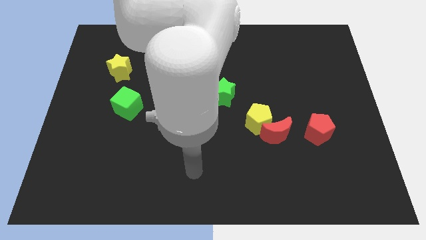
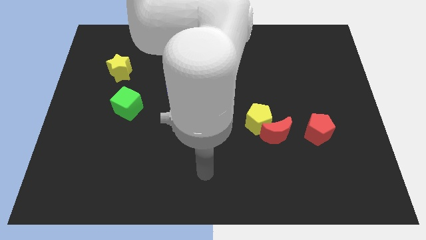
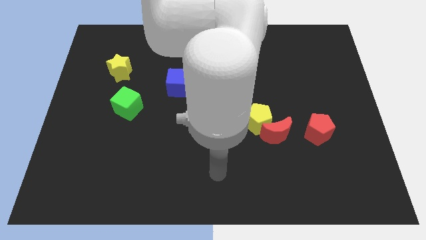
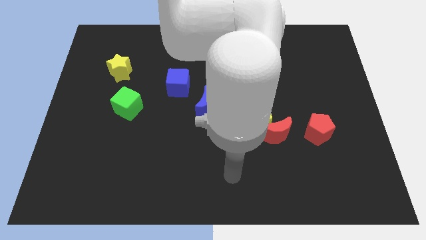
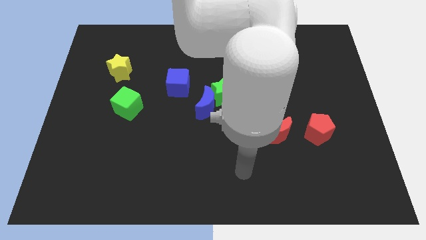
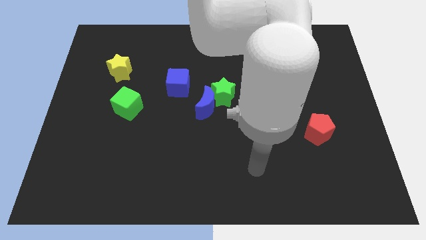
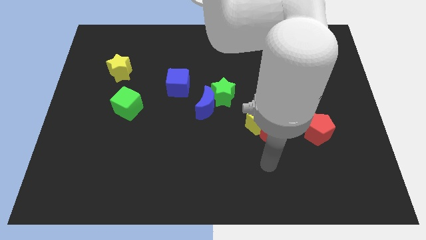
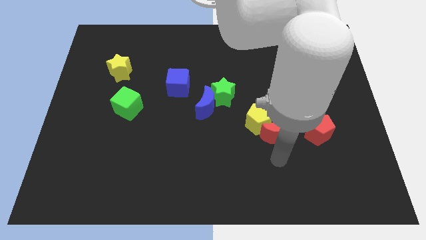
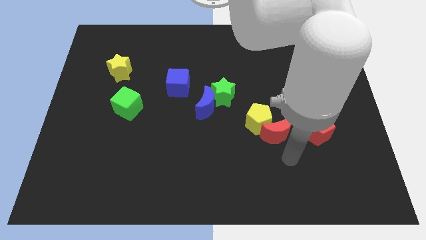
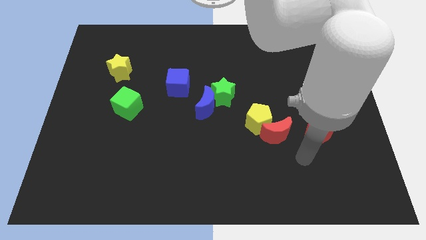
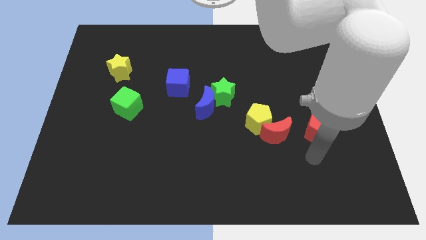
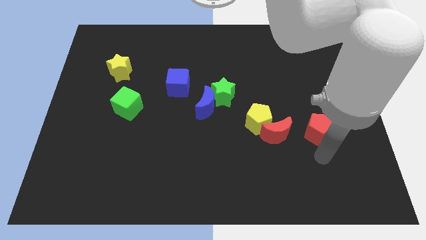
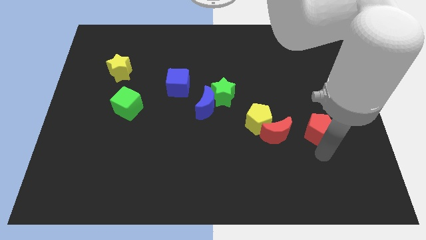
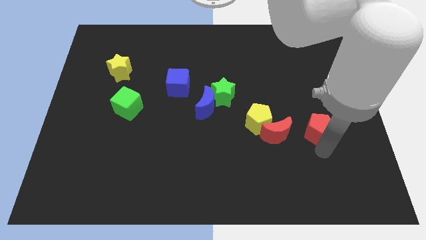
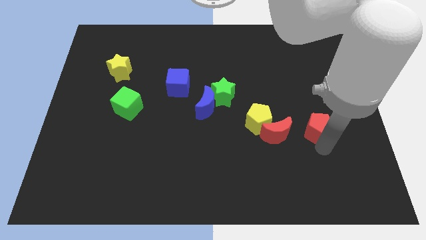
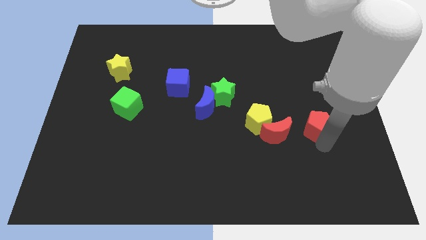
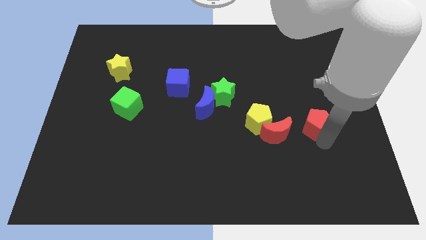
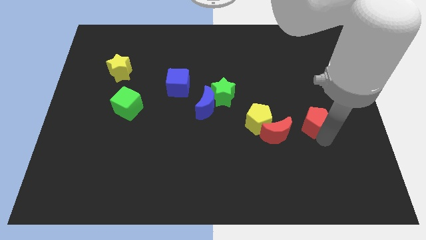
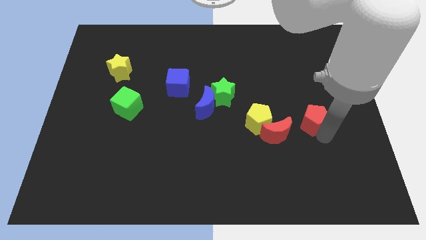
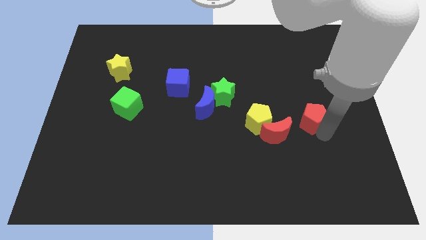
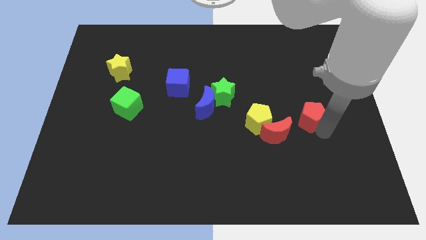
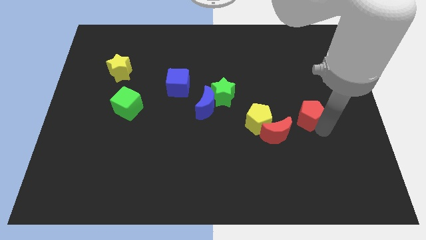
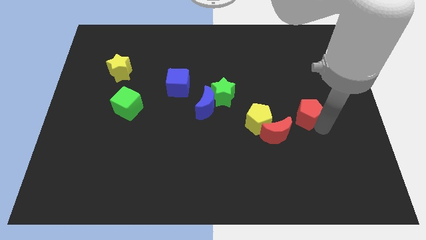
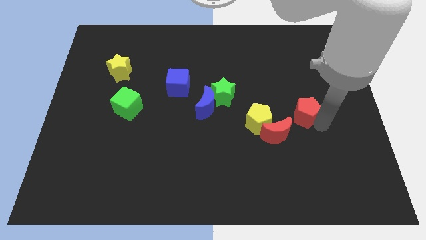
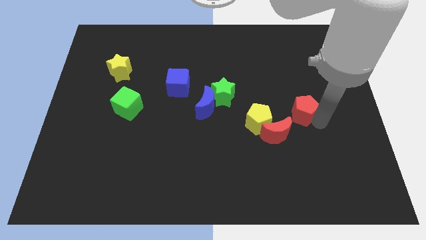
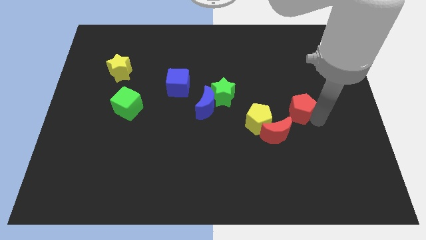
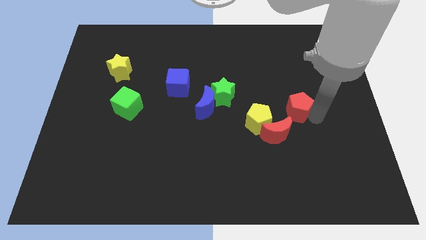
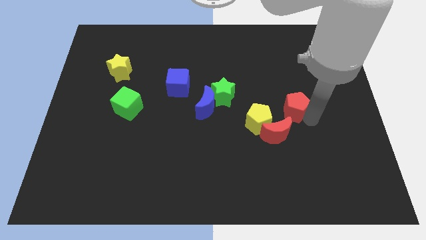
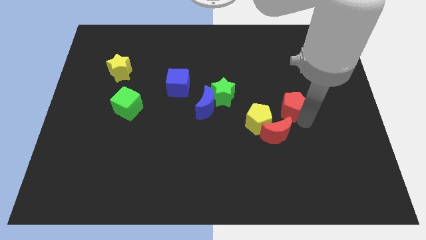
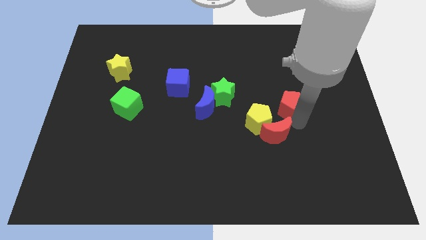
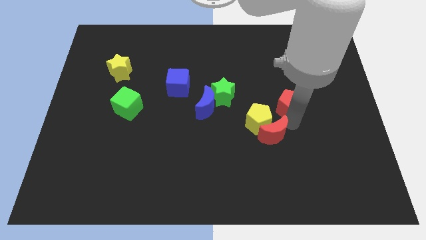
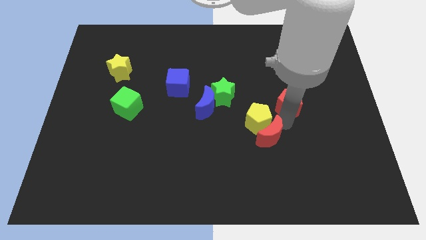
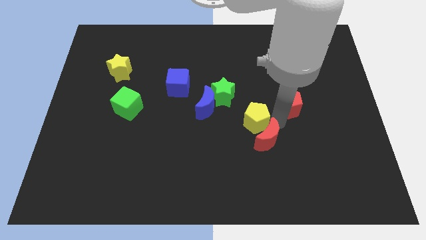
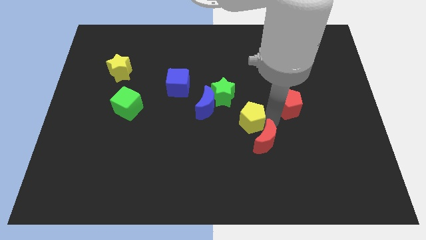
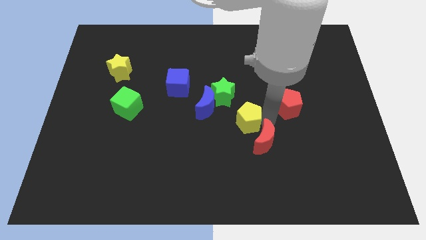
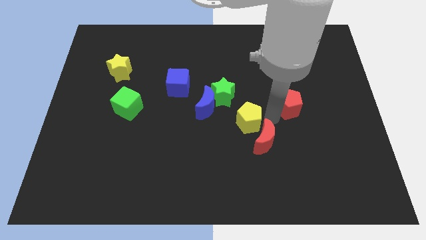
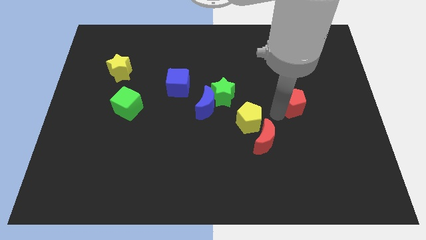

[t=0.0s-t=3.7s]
push the red pentagon a little up

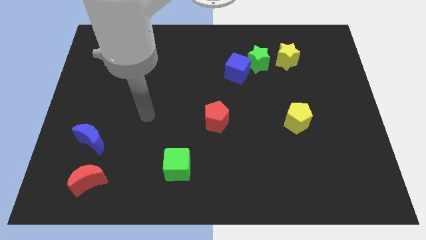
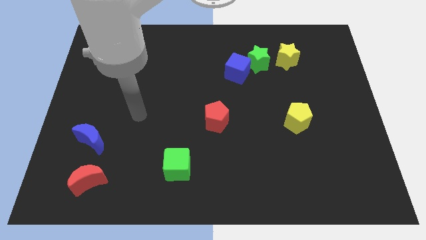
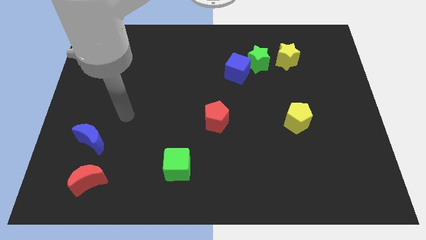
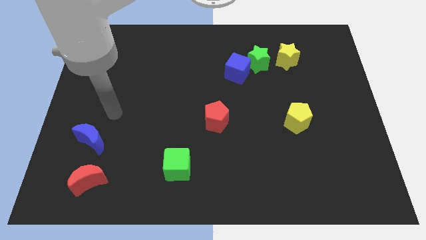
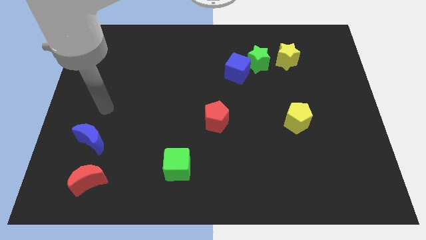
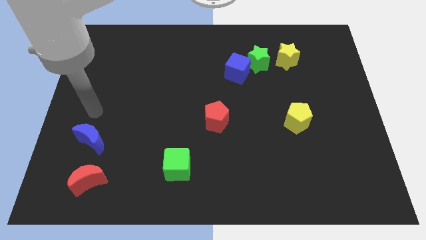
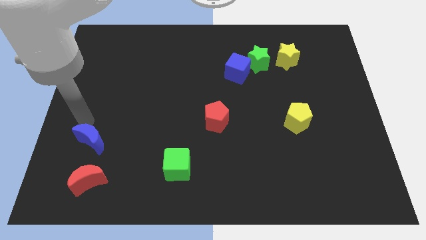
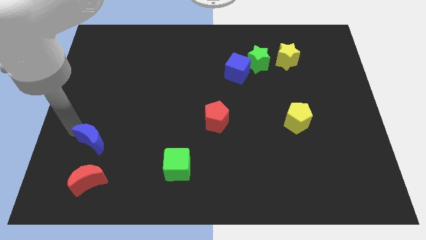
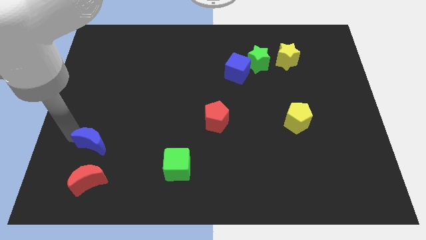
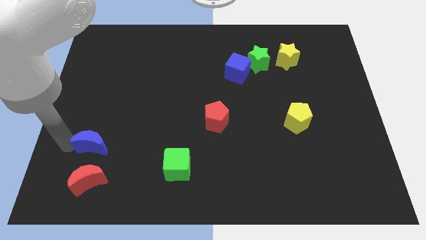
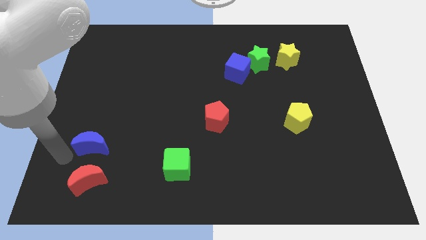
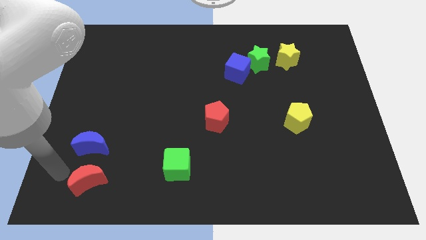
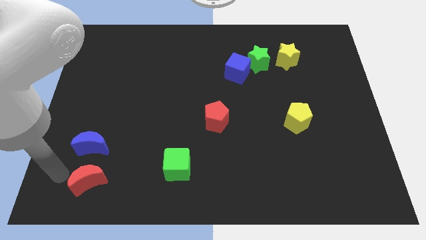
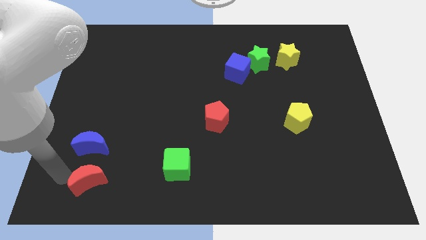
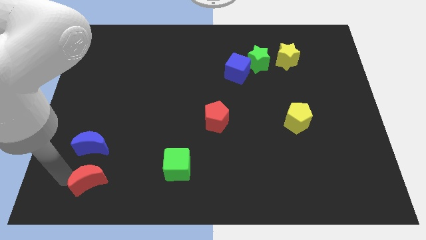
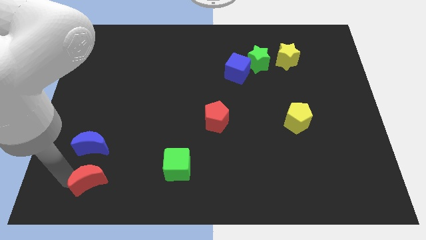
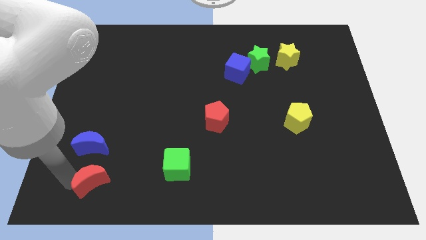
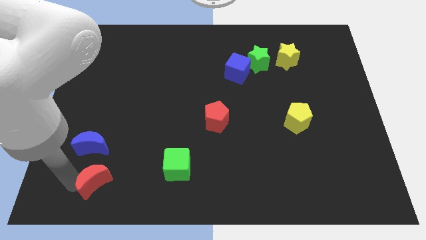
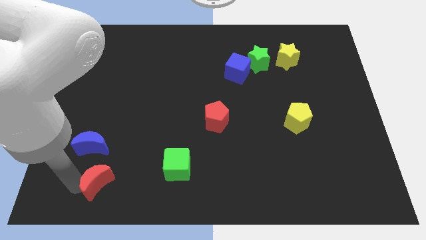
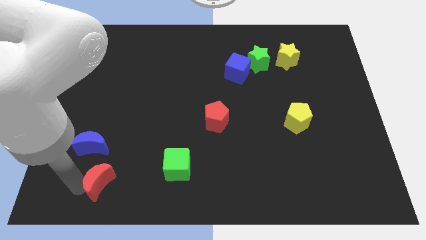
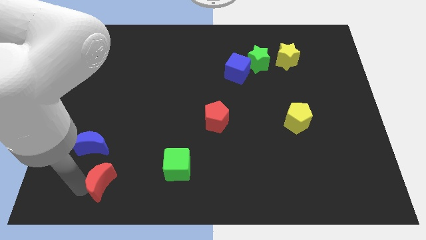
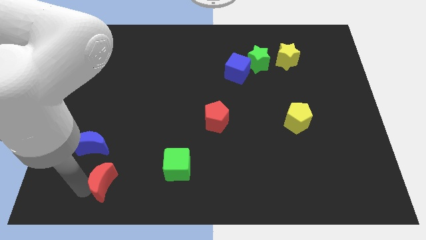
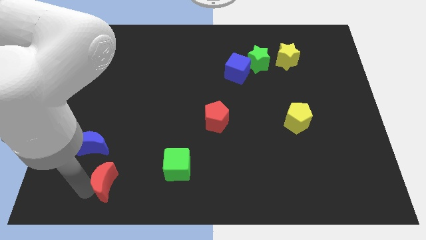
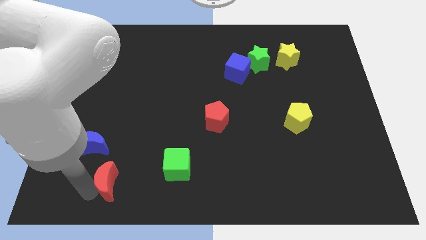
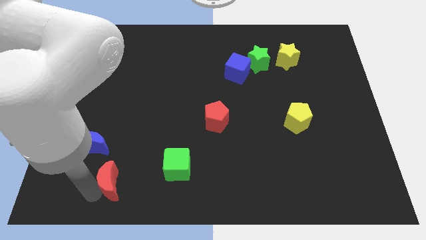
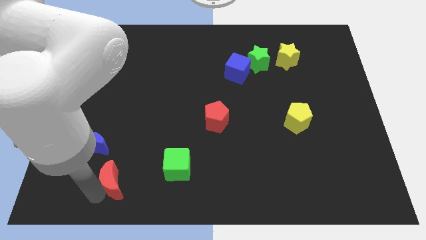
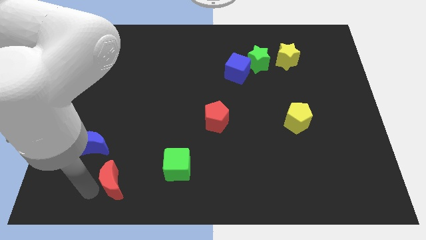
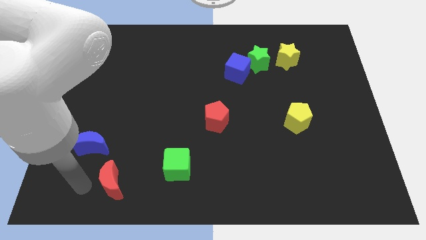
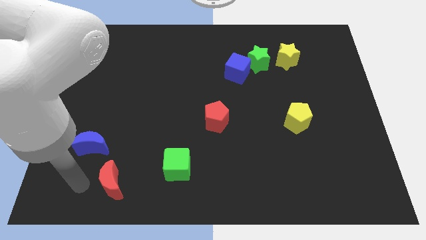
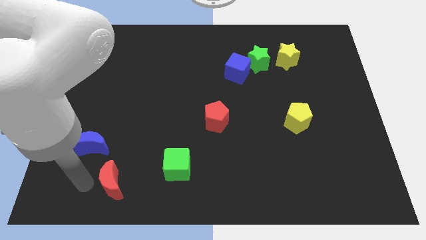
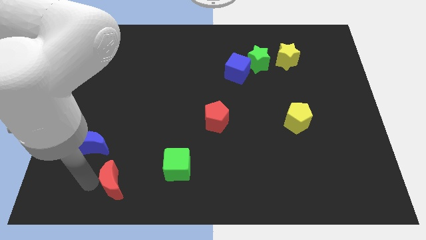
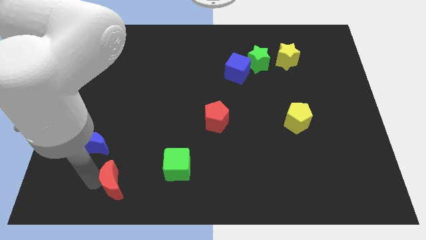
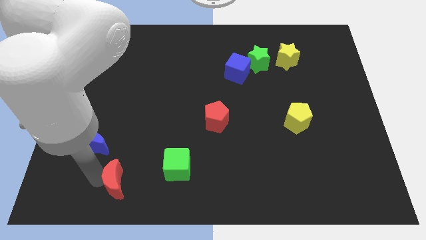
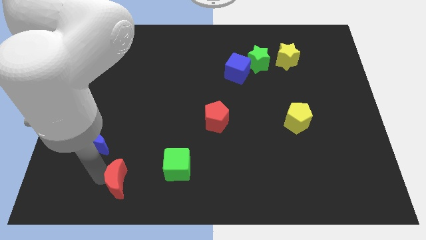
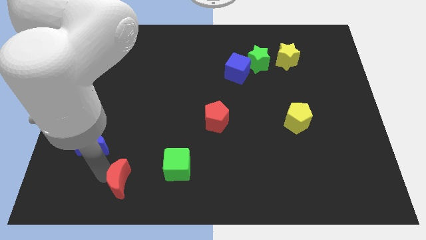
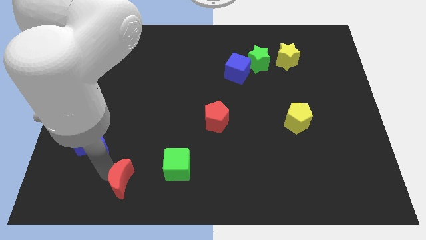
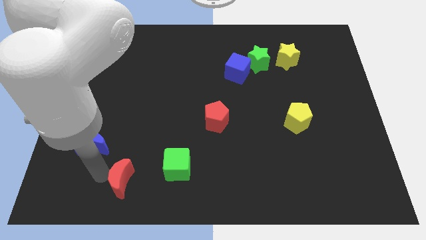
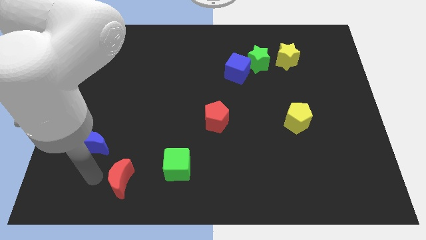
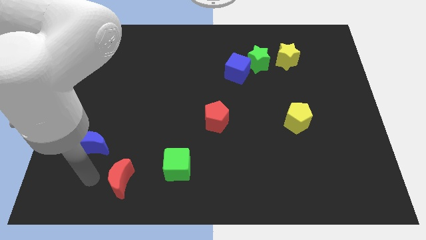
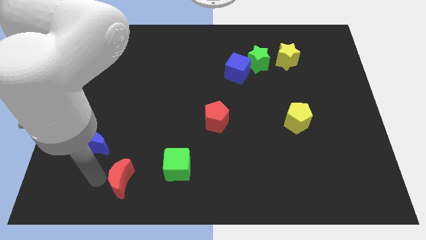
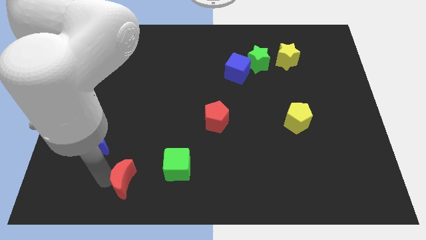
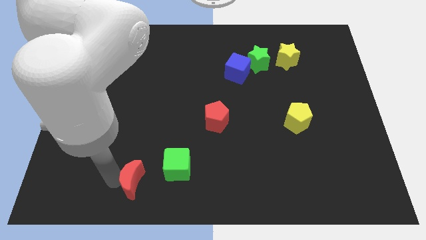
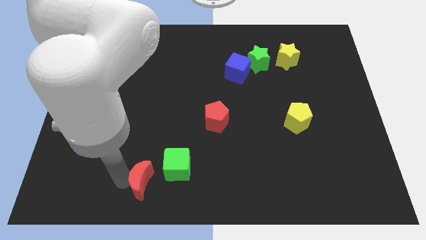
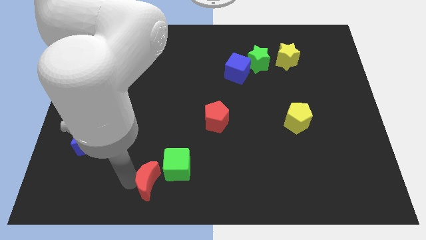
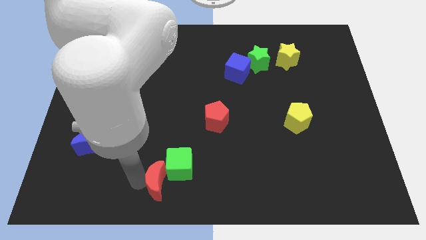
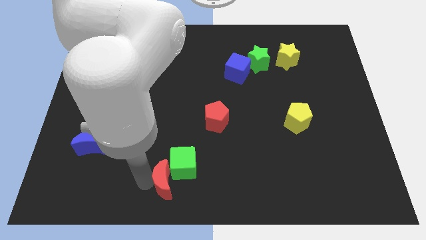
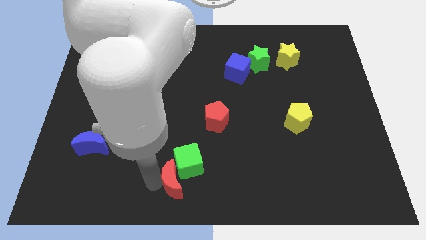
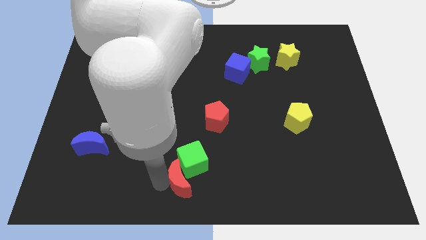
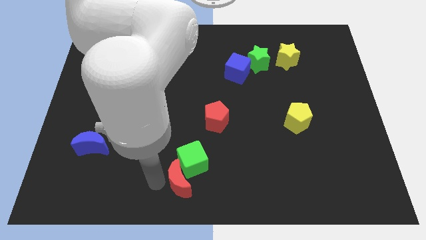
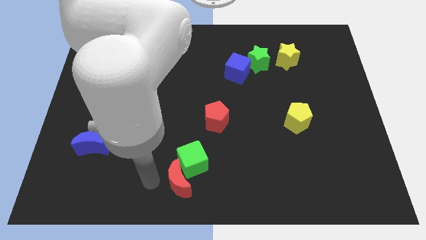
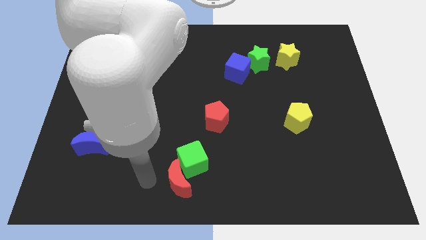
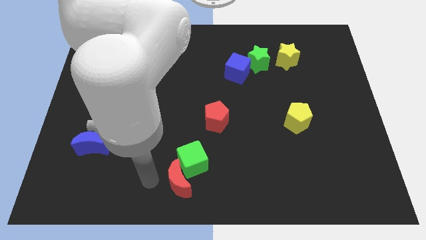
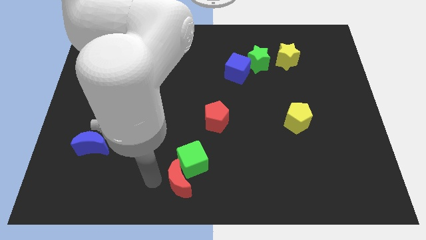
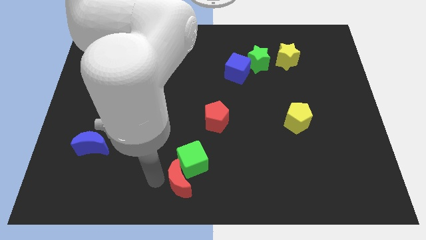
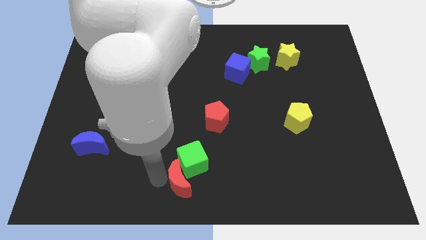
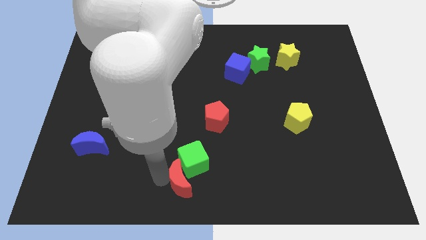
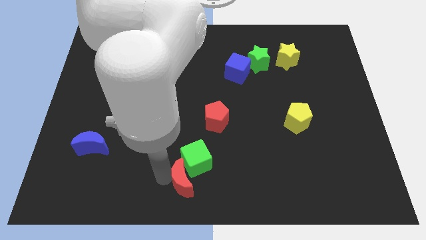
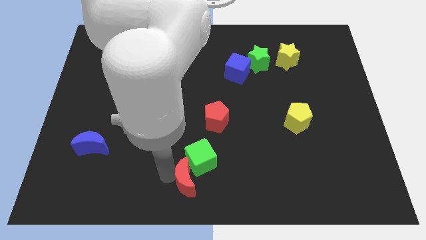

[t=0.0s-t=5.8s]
push the red moon to the right
